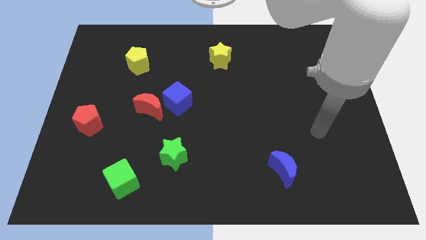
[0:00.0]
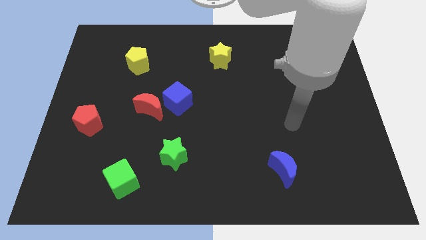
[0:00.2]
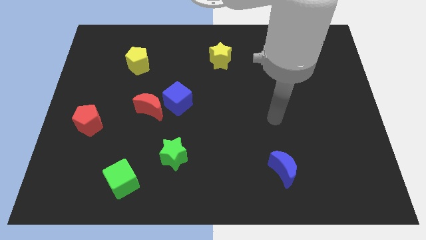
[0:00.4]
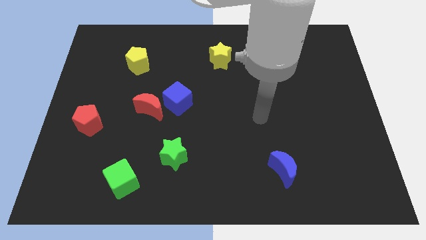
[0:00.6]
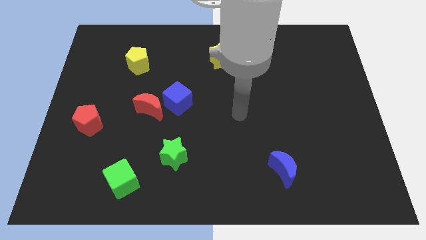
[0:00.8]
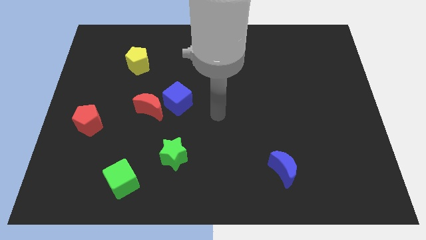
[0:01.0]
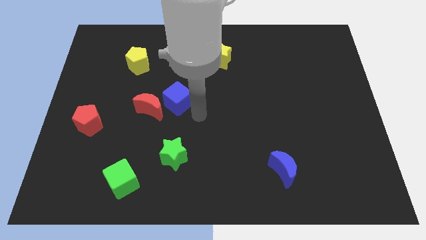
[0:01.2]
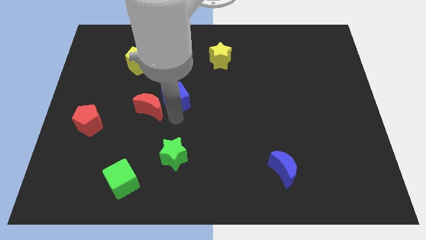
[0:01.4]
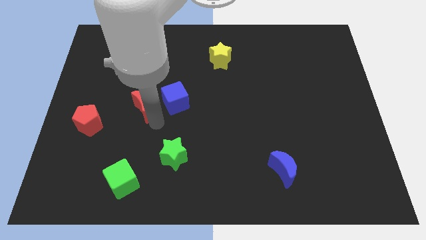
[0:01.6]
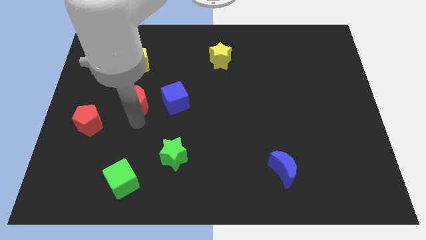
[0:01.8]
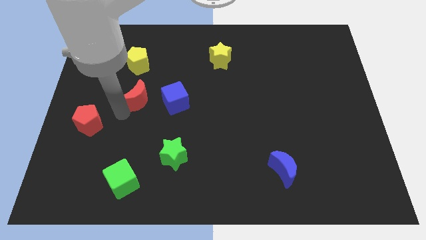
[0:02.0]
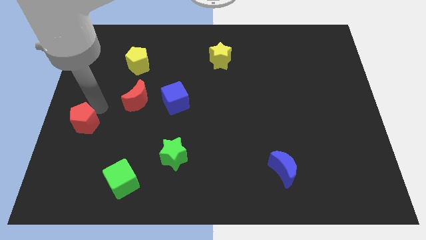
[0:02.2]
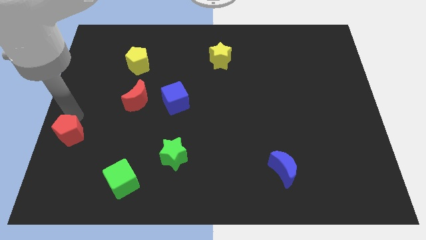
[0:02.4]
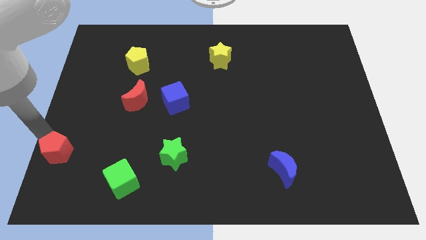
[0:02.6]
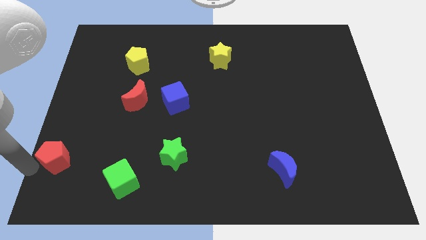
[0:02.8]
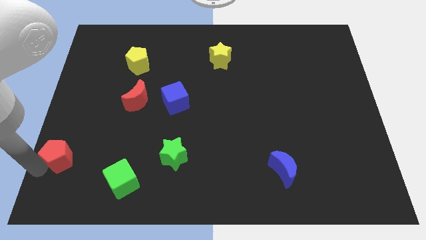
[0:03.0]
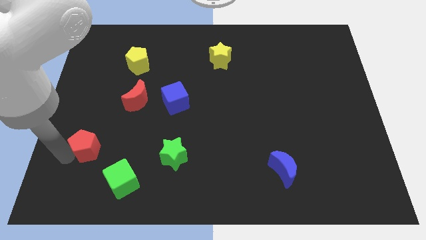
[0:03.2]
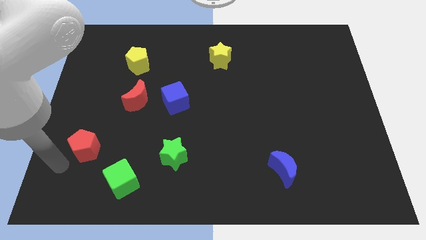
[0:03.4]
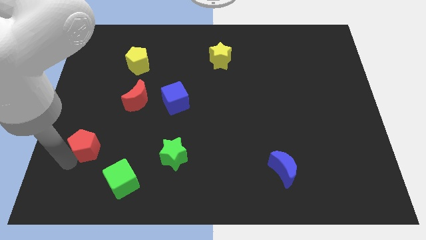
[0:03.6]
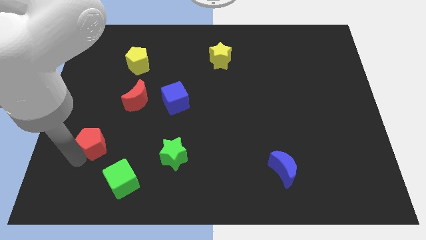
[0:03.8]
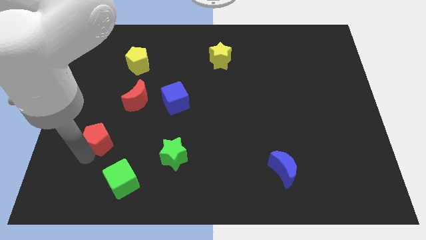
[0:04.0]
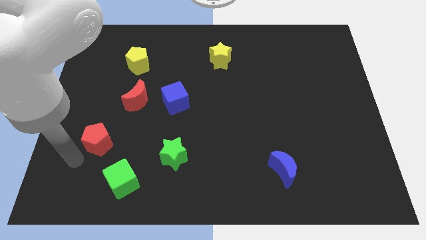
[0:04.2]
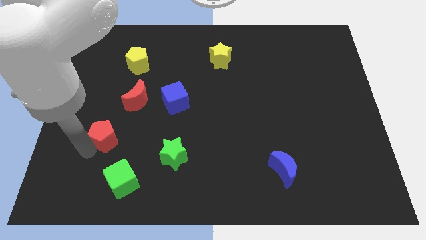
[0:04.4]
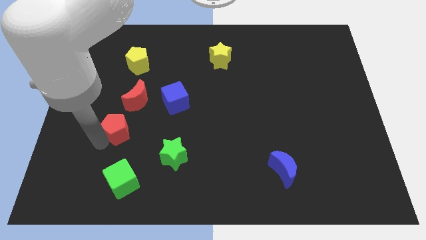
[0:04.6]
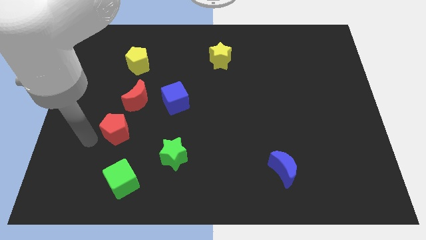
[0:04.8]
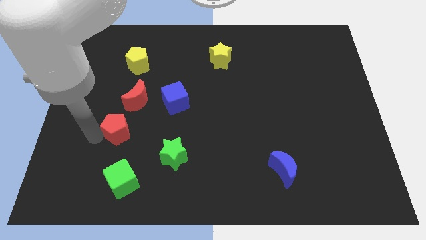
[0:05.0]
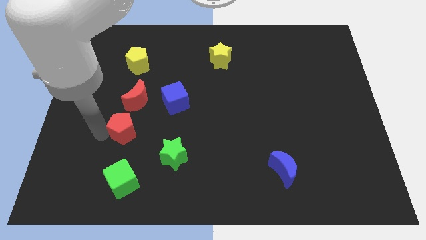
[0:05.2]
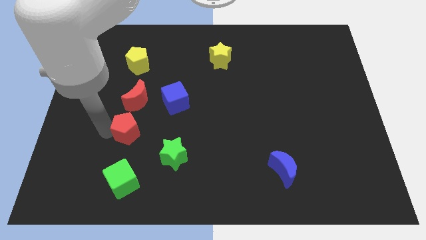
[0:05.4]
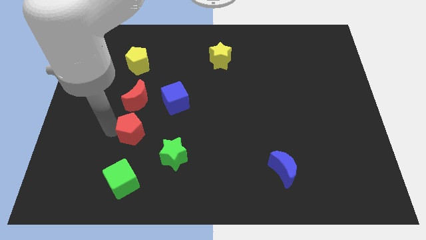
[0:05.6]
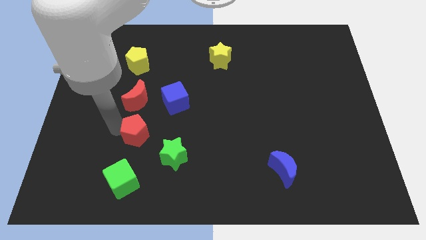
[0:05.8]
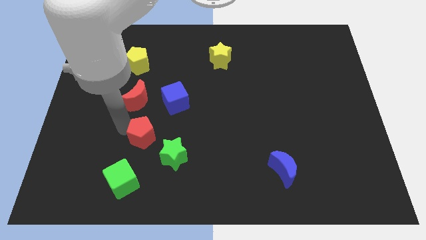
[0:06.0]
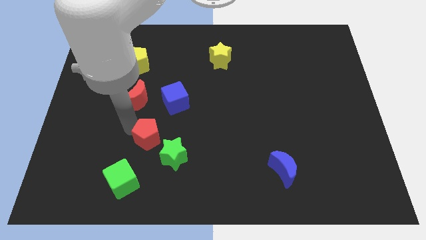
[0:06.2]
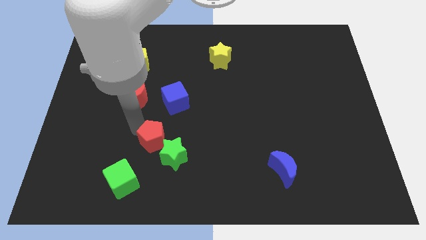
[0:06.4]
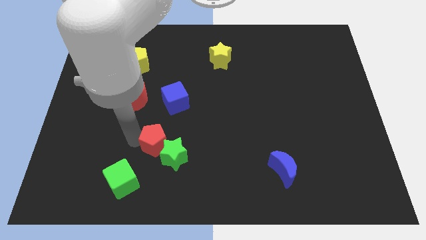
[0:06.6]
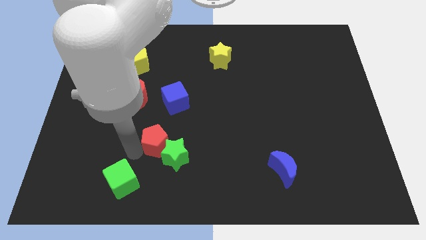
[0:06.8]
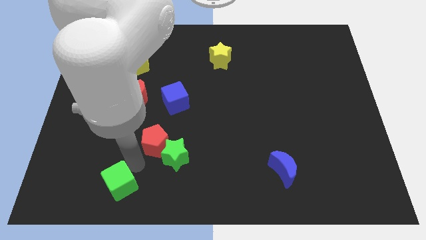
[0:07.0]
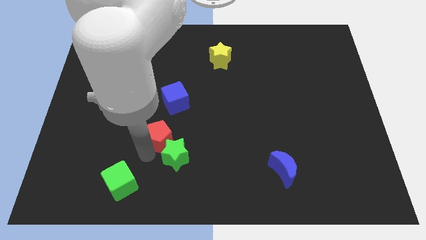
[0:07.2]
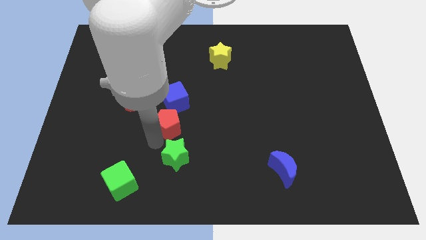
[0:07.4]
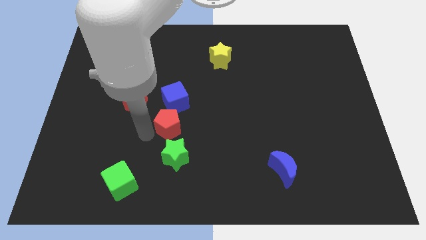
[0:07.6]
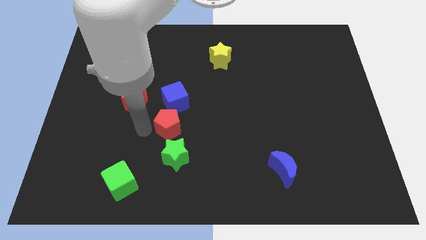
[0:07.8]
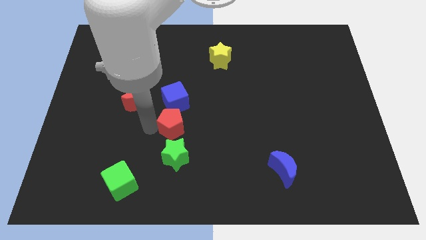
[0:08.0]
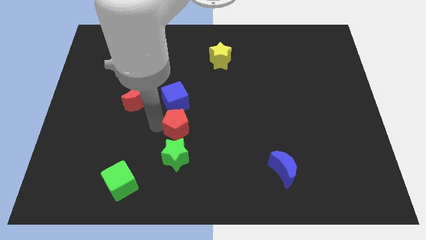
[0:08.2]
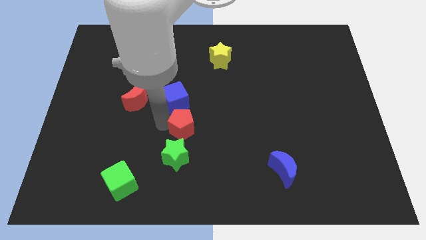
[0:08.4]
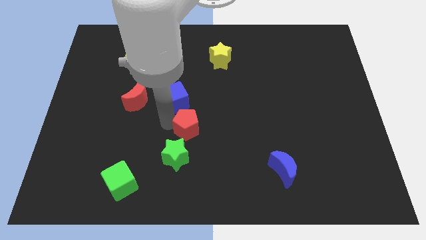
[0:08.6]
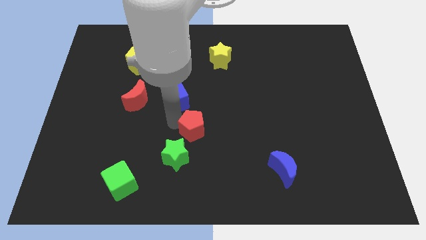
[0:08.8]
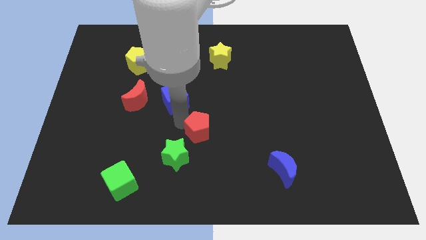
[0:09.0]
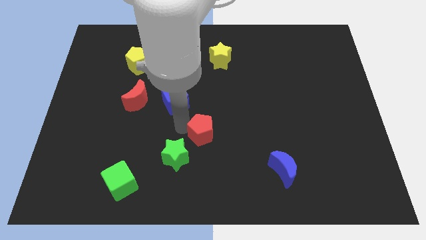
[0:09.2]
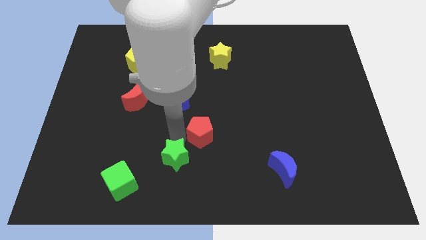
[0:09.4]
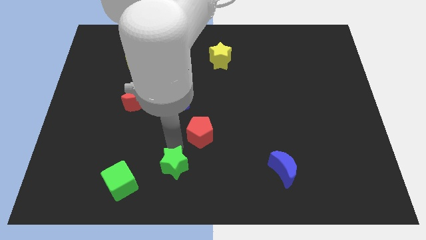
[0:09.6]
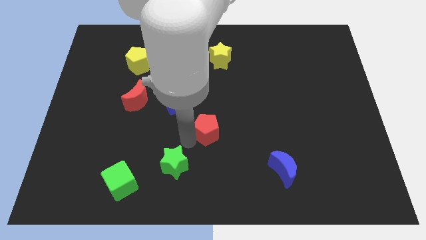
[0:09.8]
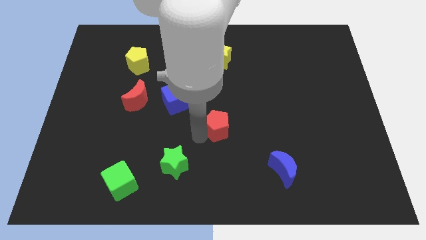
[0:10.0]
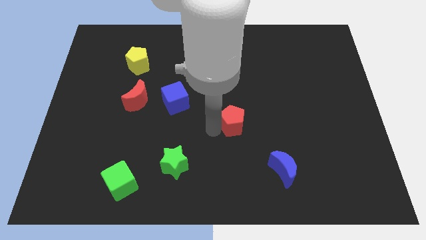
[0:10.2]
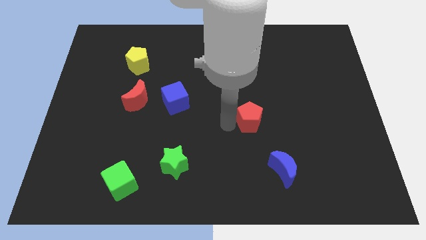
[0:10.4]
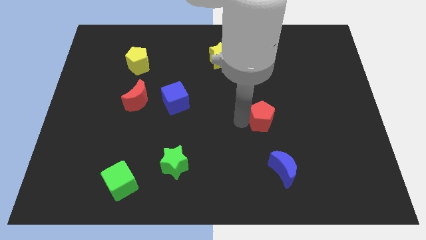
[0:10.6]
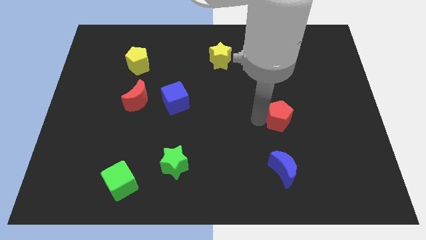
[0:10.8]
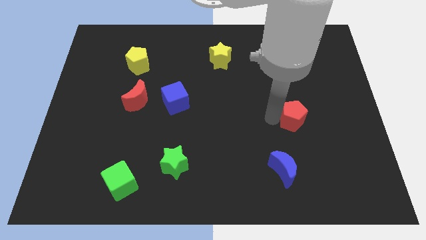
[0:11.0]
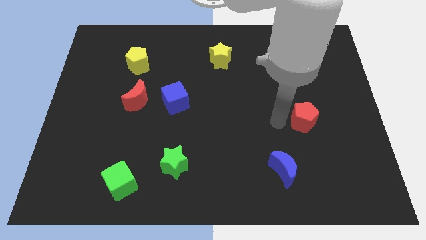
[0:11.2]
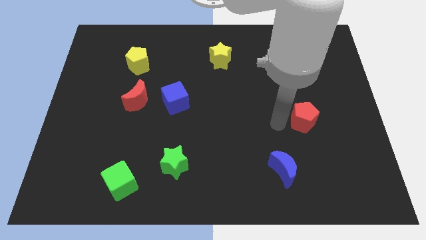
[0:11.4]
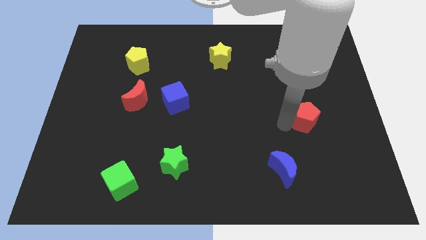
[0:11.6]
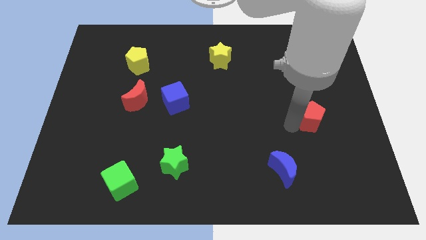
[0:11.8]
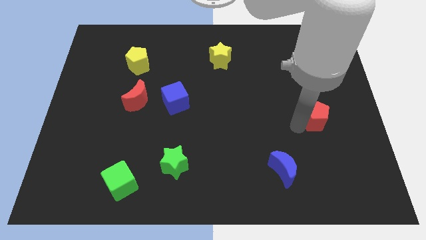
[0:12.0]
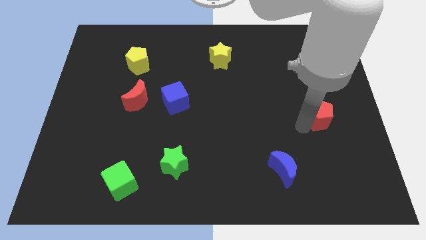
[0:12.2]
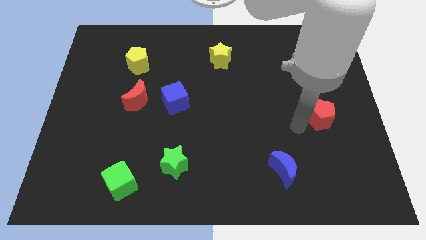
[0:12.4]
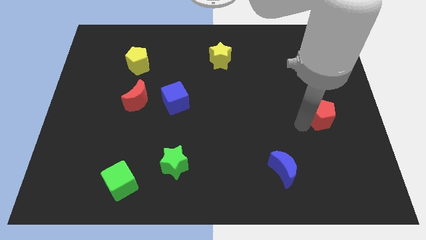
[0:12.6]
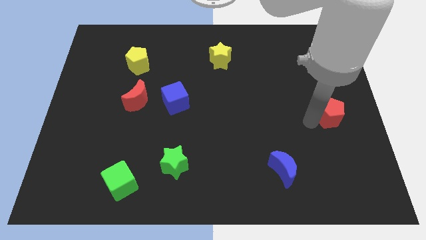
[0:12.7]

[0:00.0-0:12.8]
slide the red pentagon to the right side
